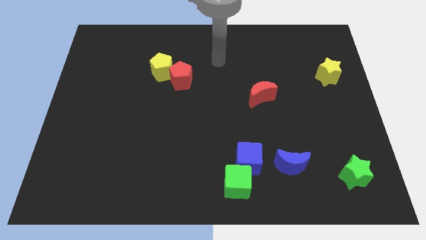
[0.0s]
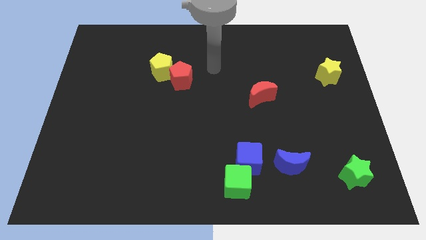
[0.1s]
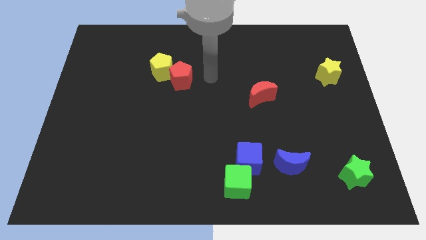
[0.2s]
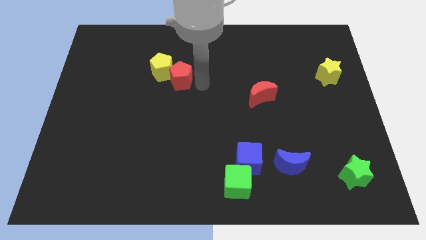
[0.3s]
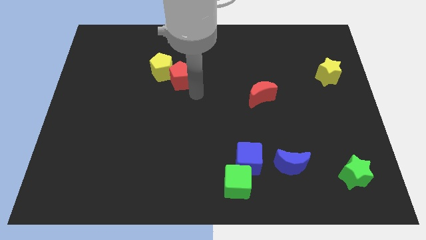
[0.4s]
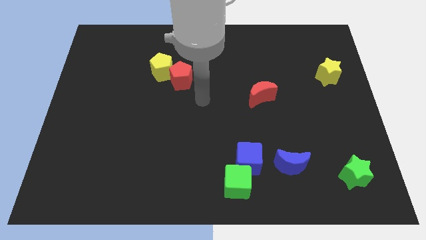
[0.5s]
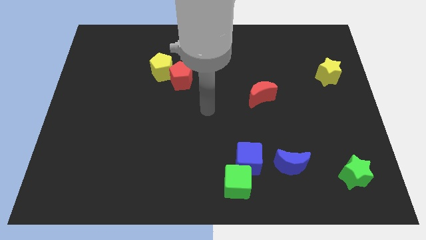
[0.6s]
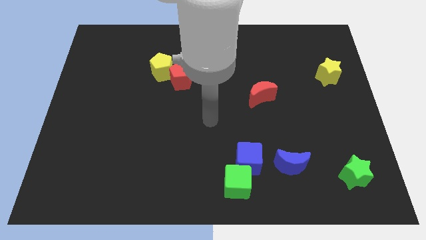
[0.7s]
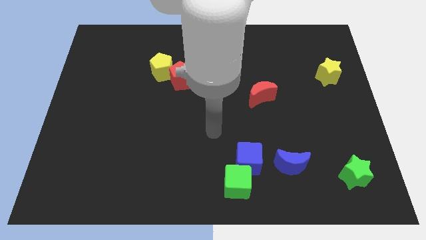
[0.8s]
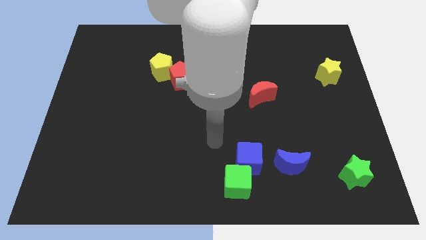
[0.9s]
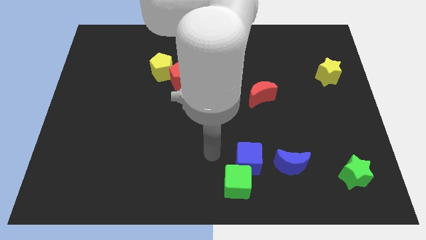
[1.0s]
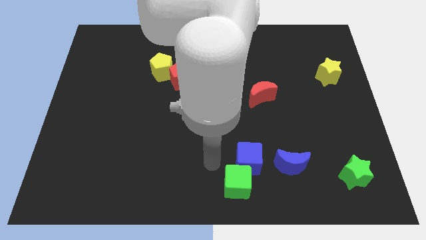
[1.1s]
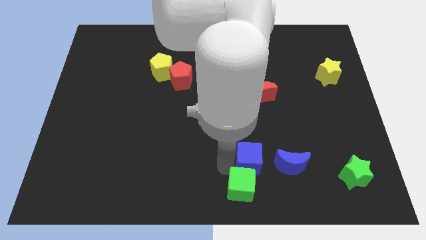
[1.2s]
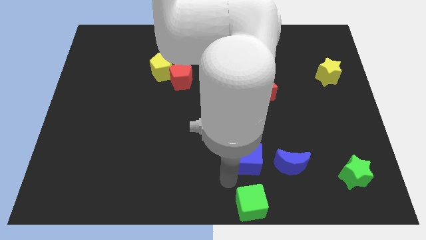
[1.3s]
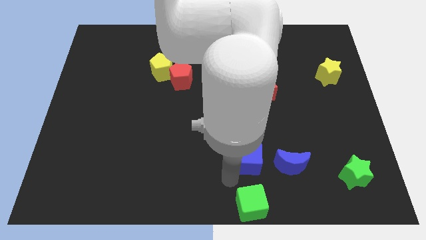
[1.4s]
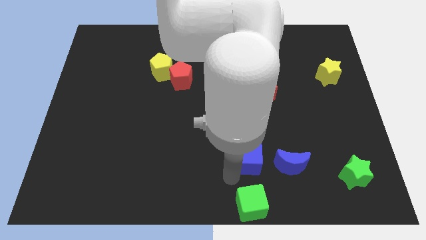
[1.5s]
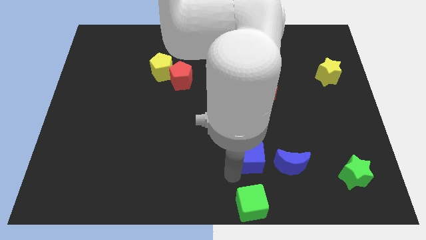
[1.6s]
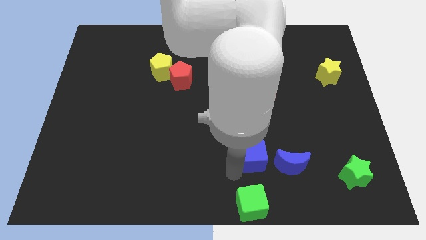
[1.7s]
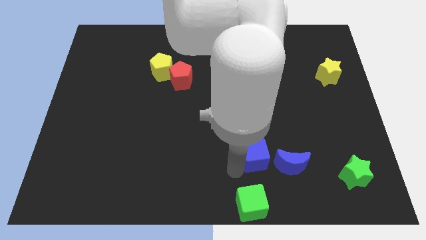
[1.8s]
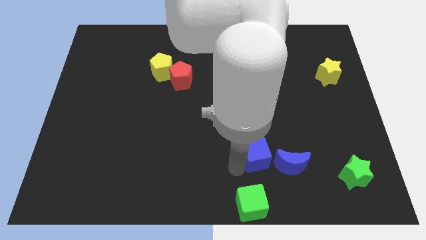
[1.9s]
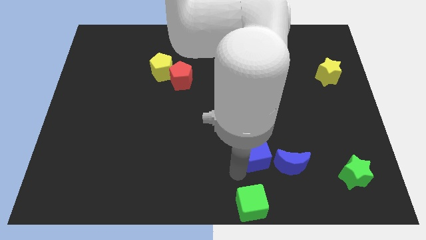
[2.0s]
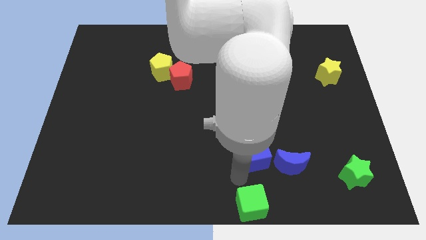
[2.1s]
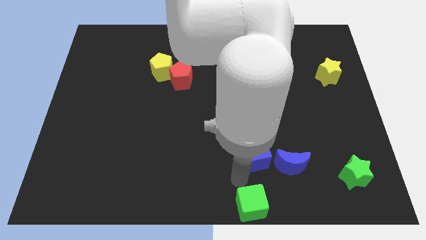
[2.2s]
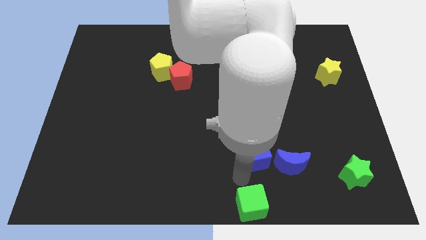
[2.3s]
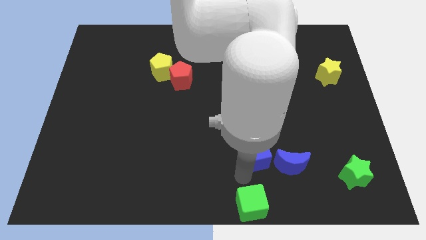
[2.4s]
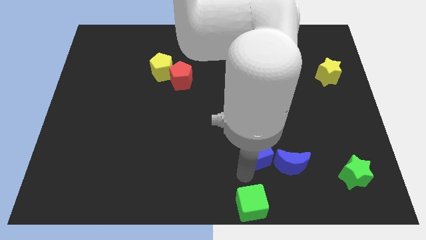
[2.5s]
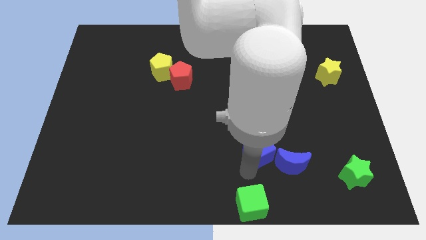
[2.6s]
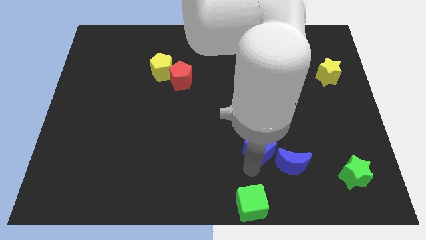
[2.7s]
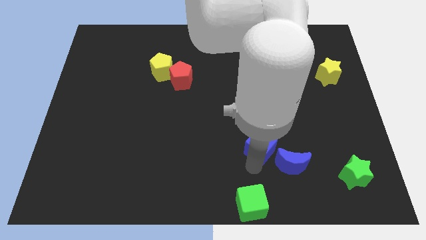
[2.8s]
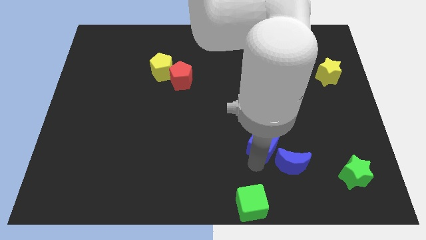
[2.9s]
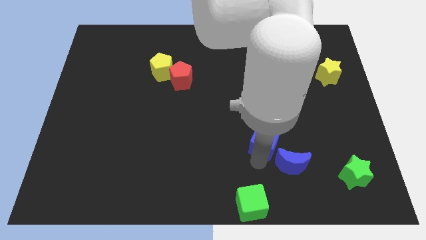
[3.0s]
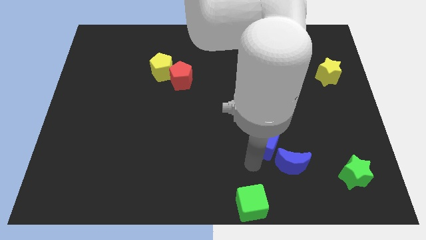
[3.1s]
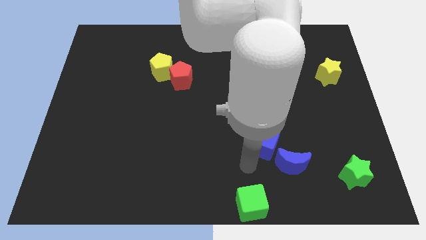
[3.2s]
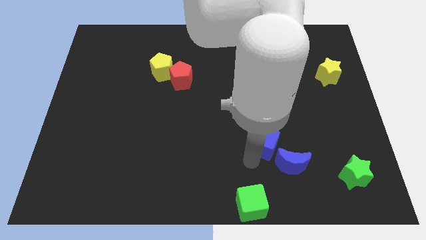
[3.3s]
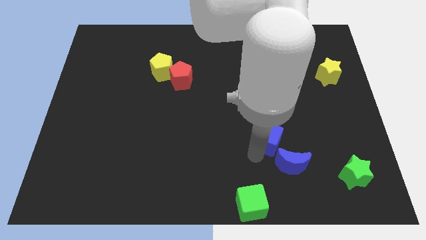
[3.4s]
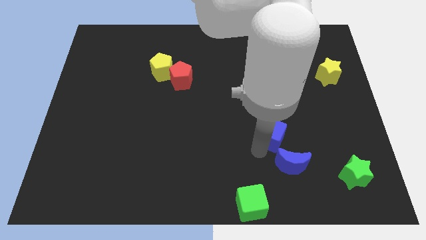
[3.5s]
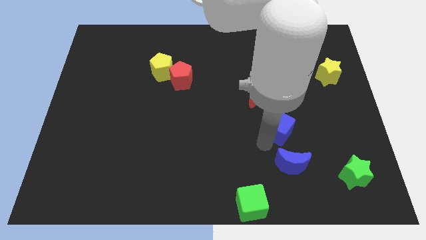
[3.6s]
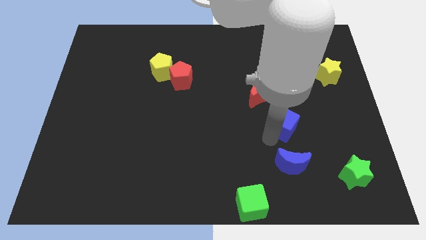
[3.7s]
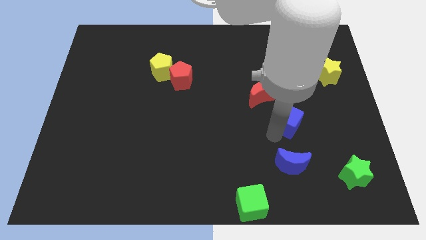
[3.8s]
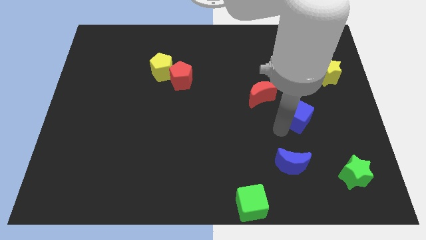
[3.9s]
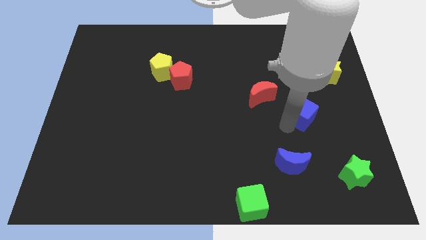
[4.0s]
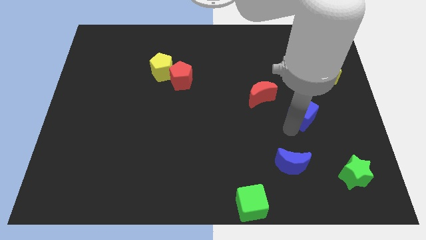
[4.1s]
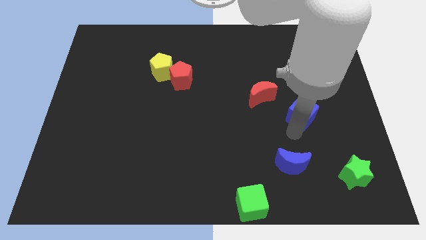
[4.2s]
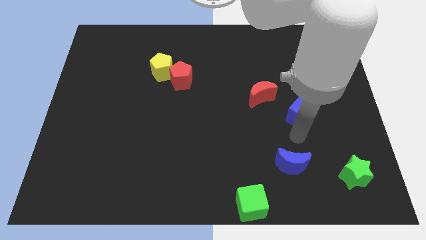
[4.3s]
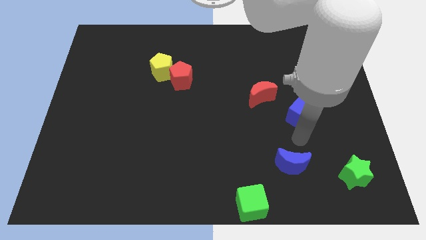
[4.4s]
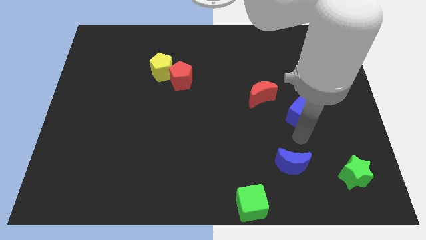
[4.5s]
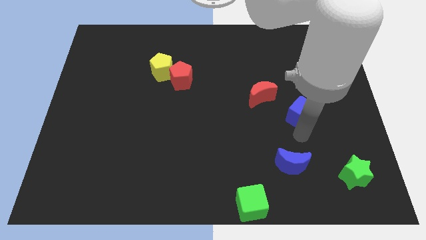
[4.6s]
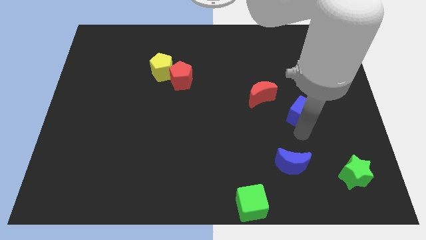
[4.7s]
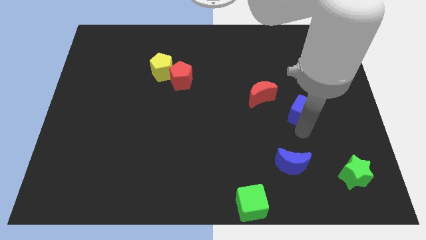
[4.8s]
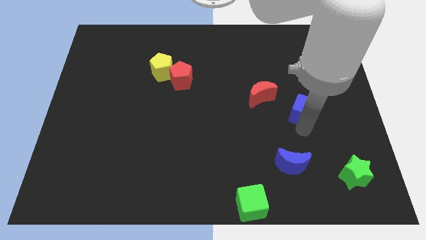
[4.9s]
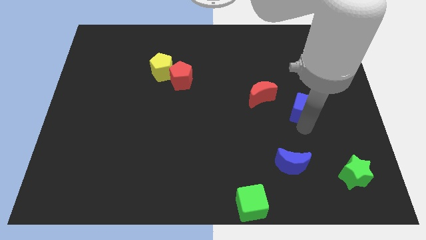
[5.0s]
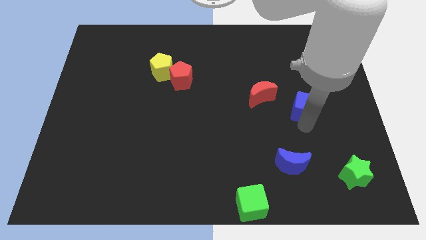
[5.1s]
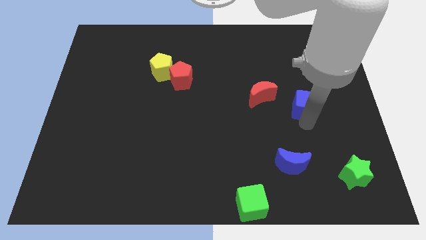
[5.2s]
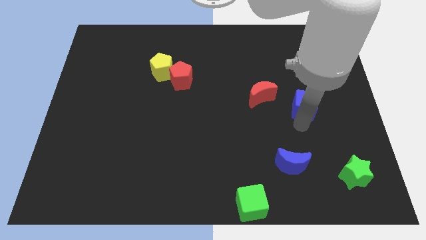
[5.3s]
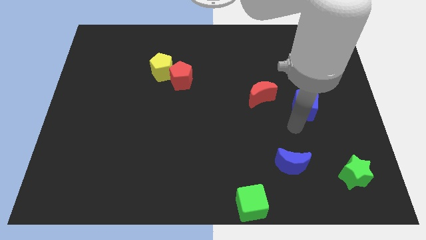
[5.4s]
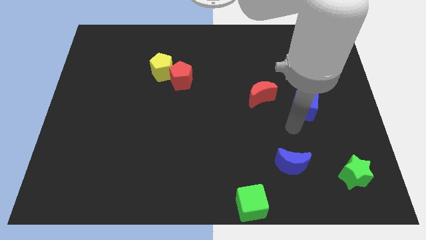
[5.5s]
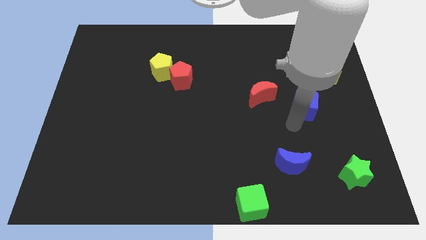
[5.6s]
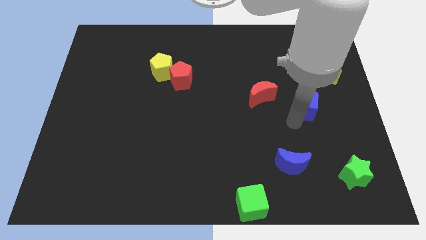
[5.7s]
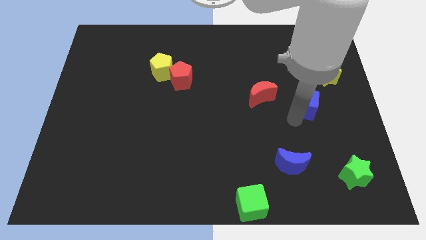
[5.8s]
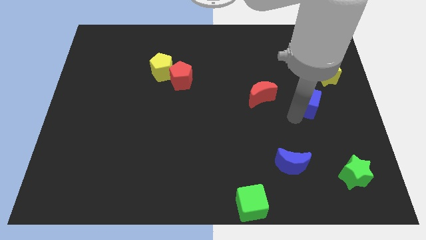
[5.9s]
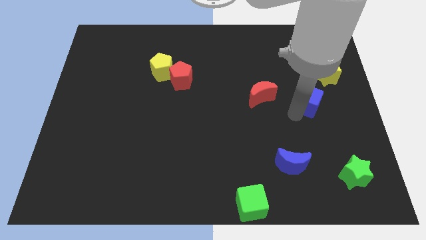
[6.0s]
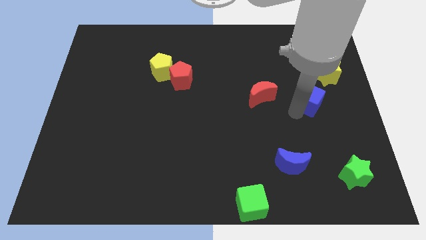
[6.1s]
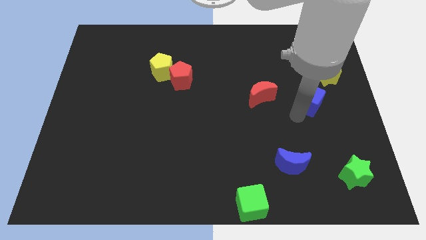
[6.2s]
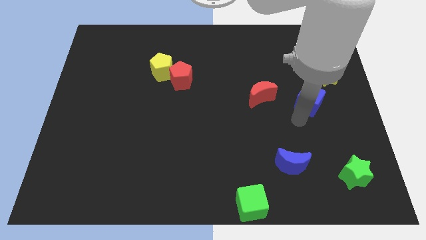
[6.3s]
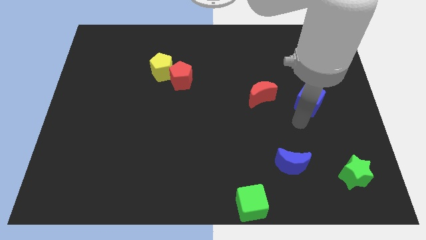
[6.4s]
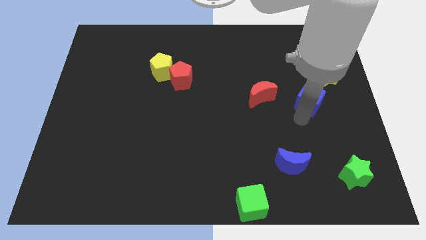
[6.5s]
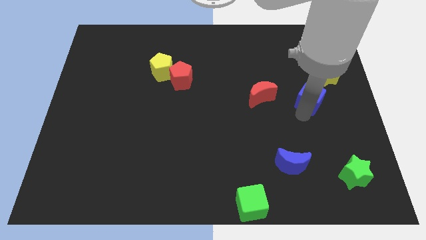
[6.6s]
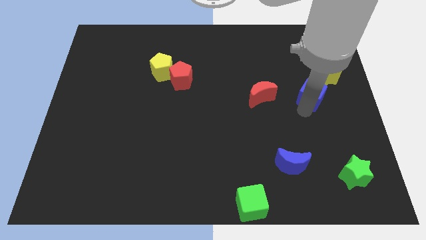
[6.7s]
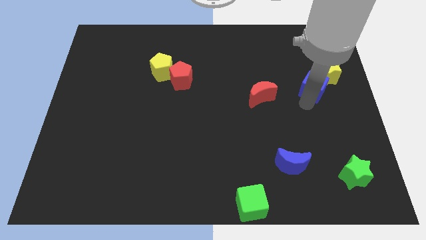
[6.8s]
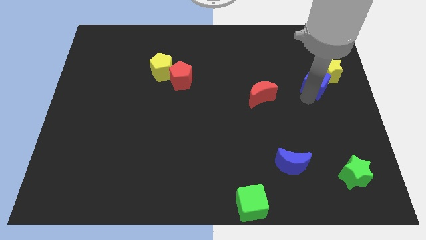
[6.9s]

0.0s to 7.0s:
put the blue cube close to the yellow star
